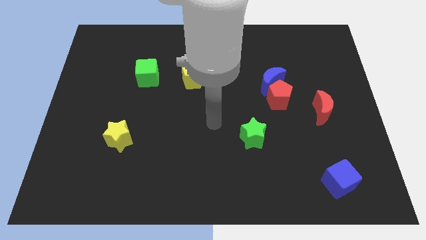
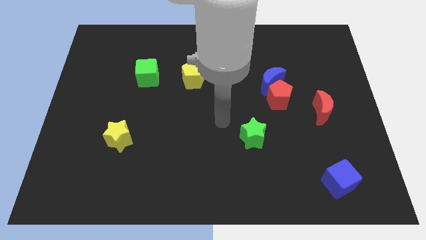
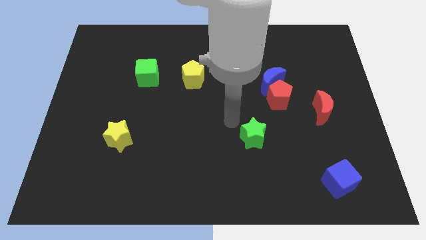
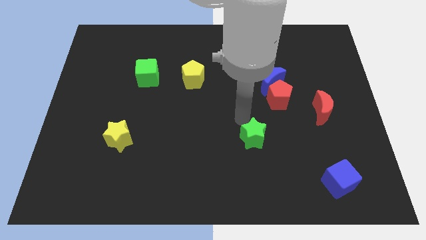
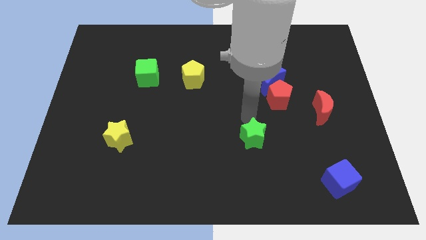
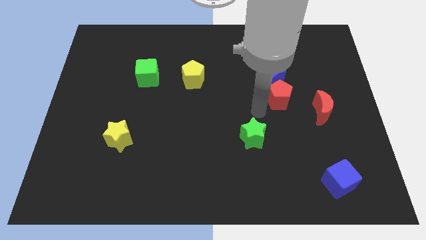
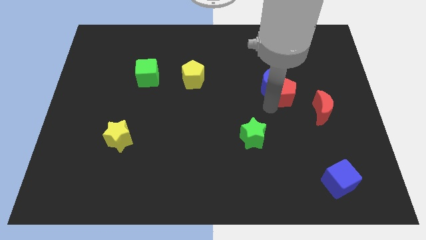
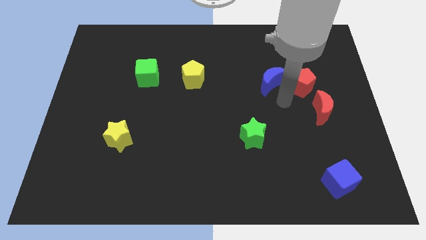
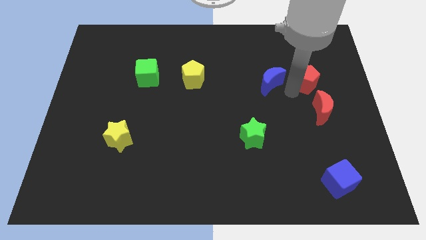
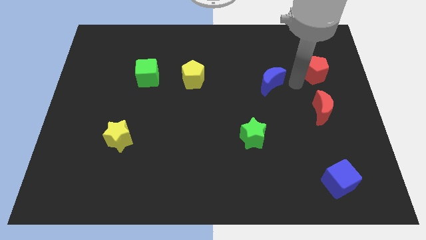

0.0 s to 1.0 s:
separate the blue moon from the red pentagon

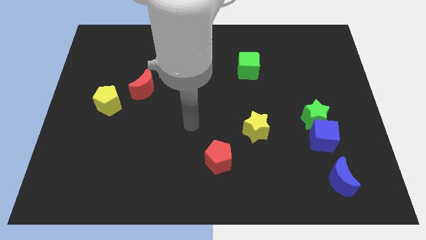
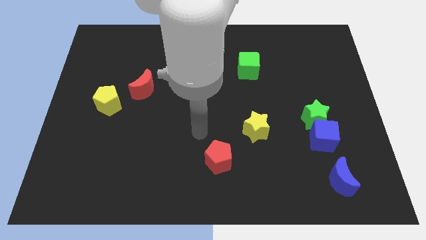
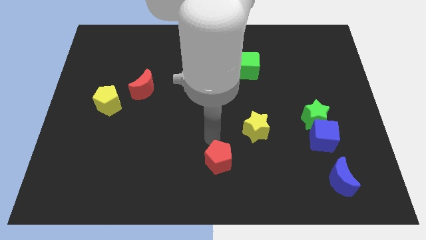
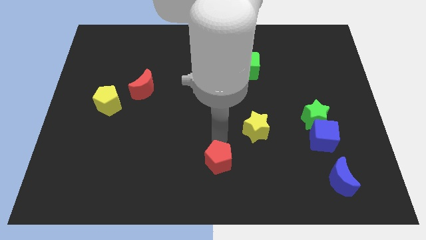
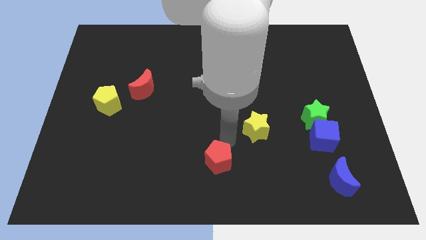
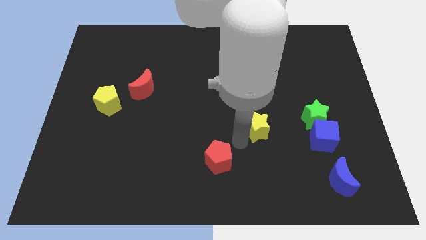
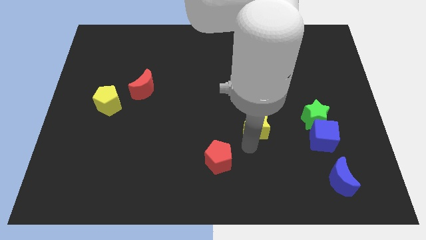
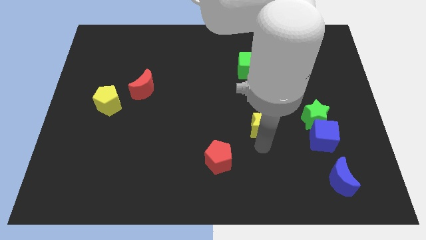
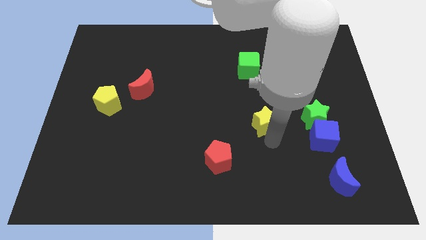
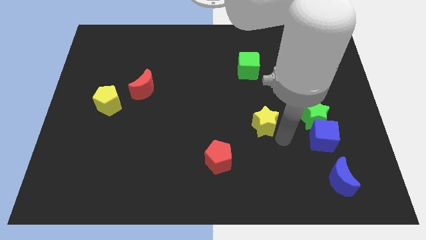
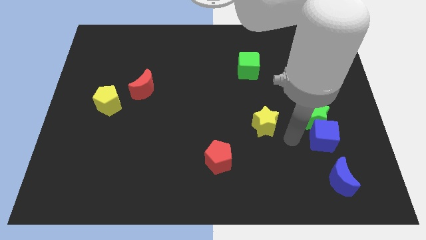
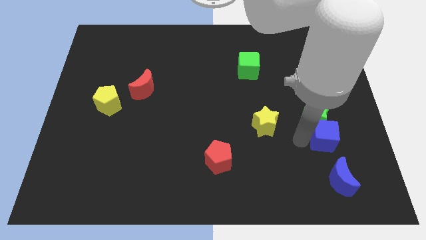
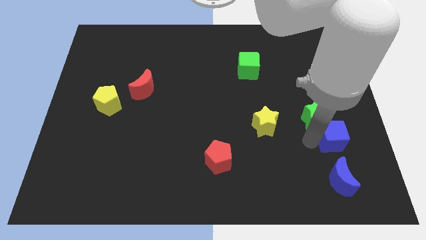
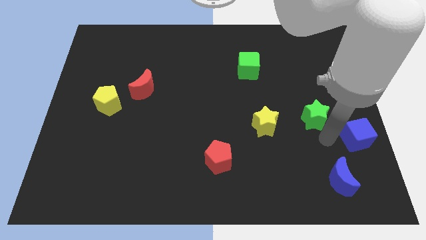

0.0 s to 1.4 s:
move the green star away from the blue cube

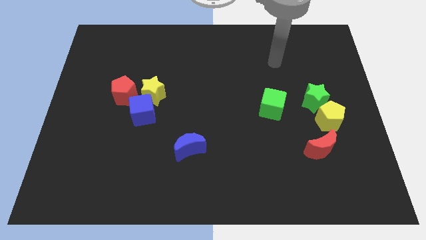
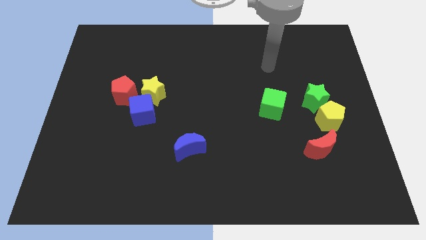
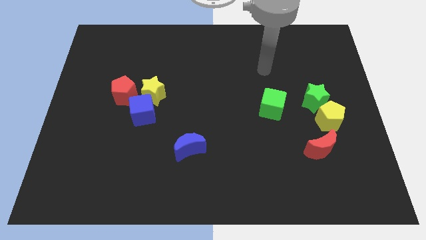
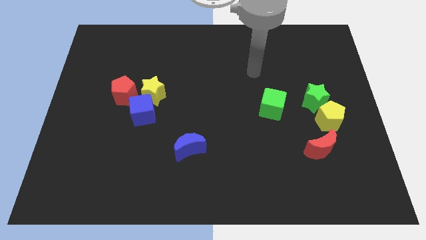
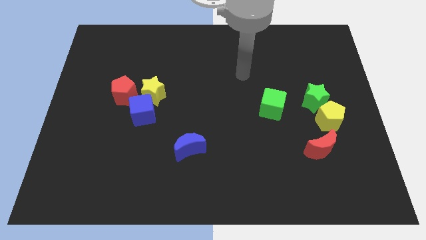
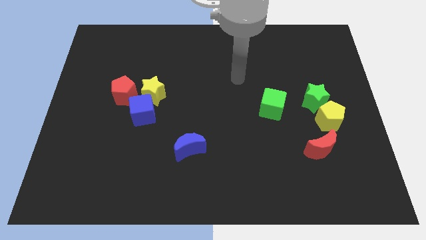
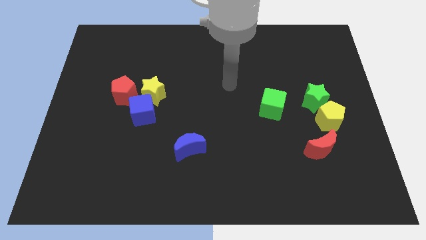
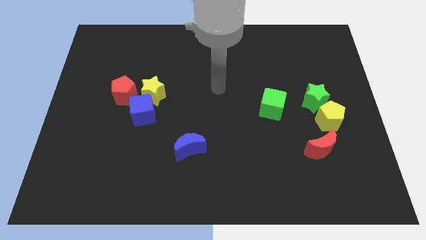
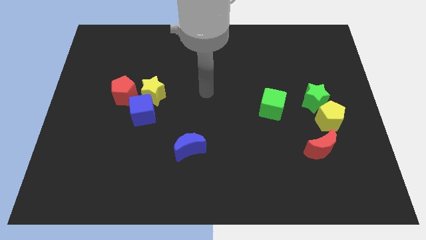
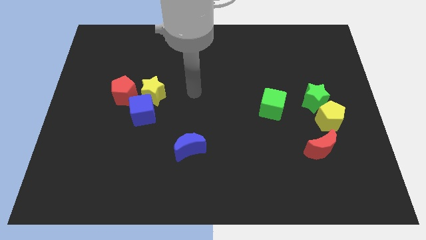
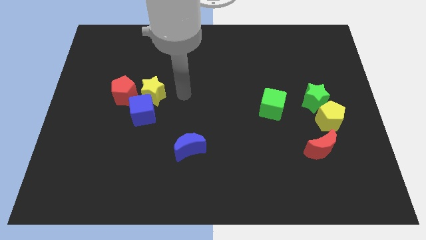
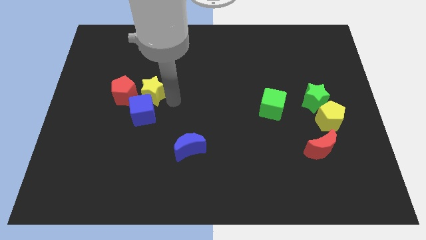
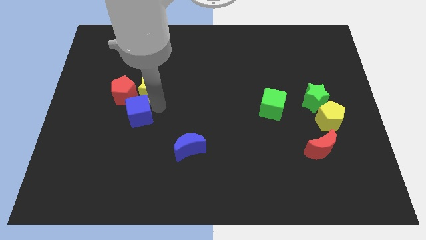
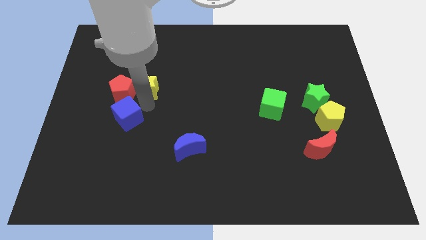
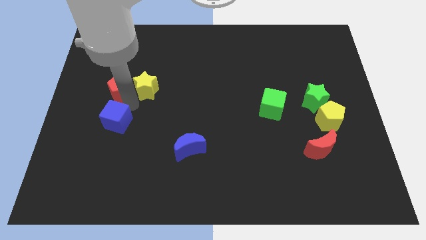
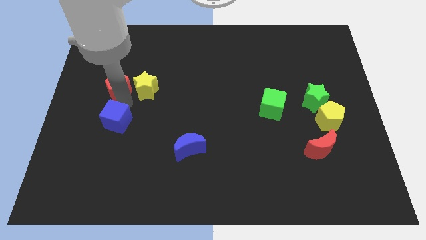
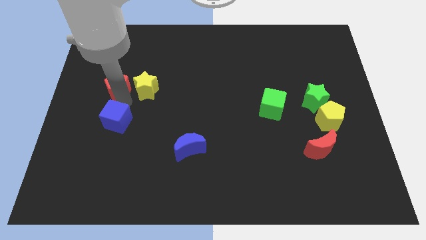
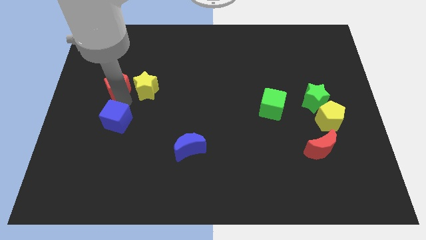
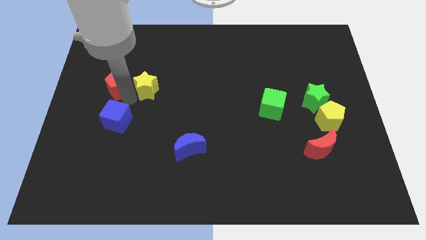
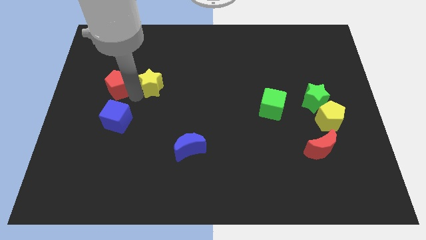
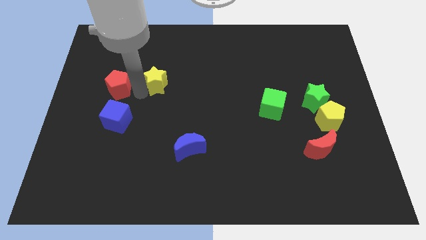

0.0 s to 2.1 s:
move the yellow star away from the blue cube and red pentagon

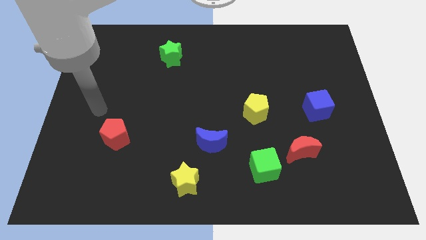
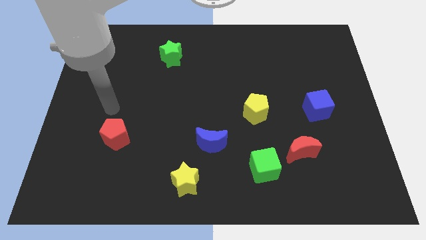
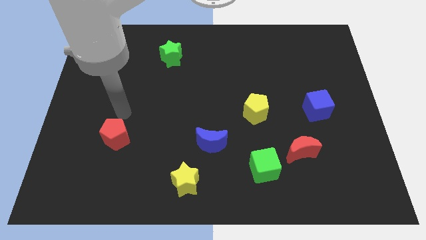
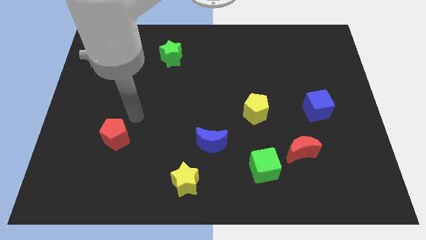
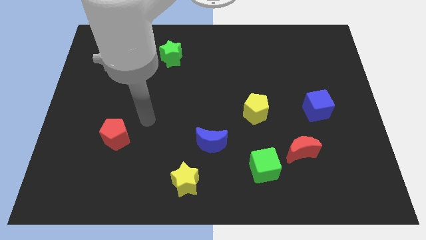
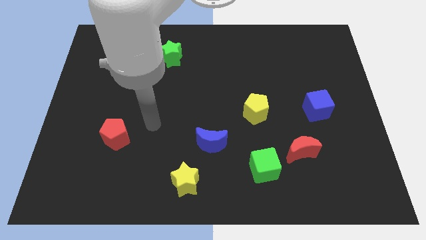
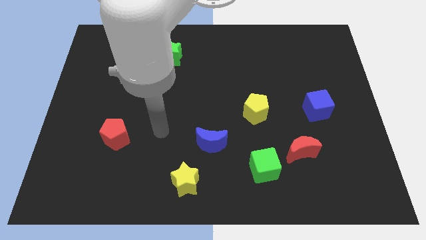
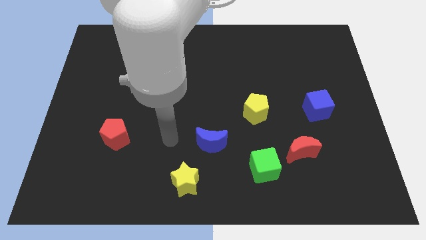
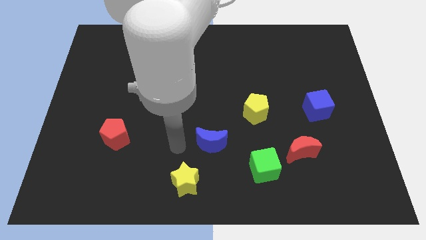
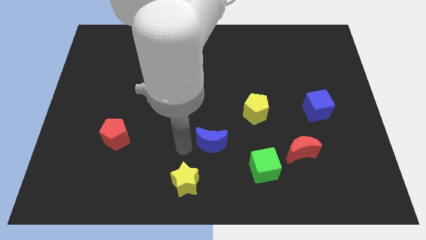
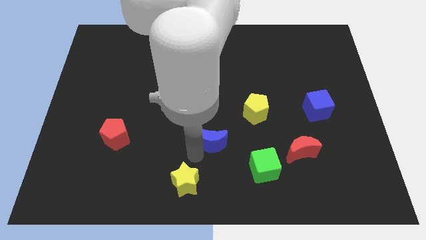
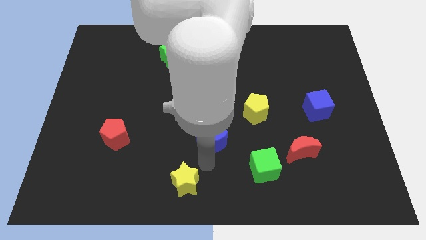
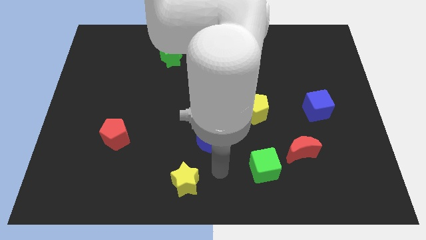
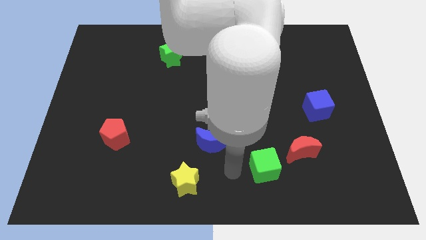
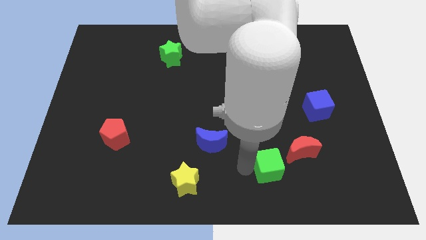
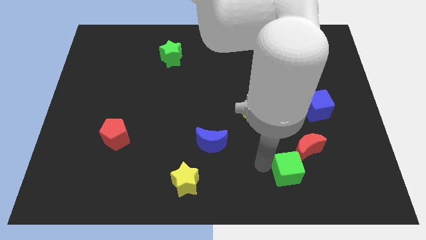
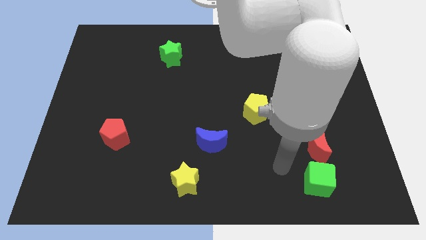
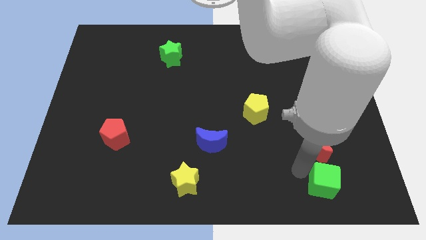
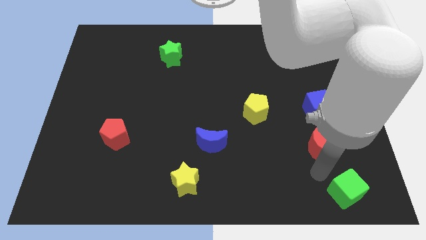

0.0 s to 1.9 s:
separate the red moon from the green cube

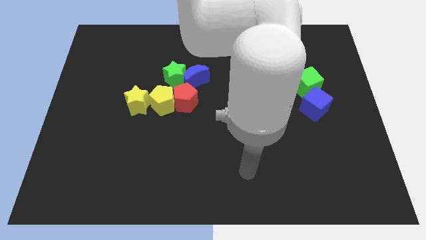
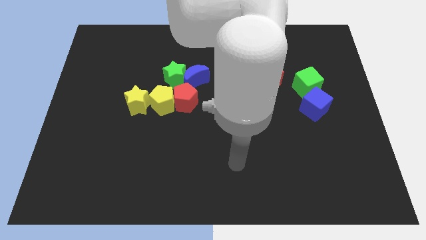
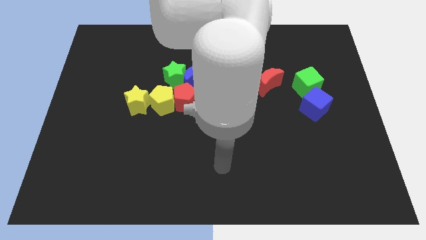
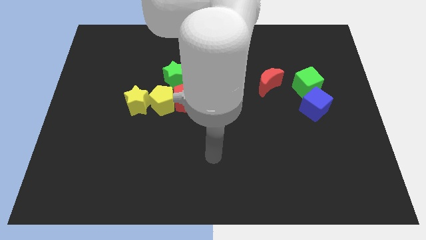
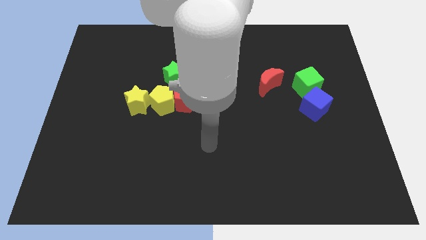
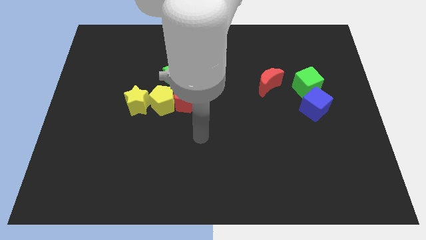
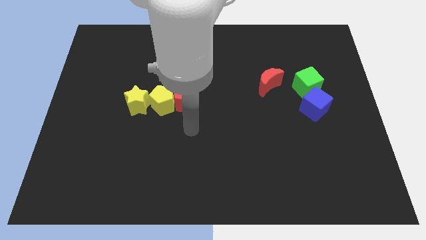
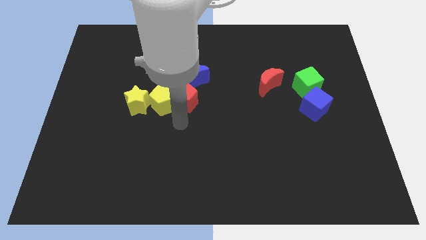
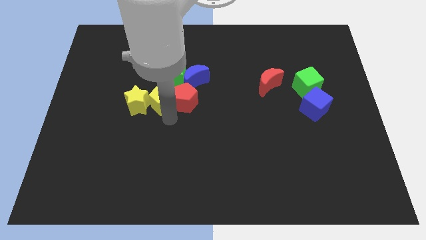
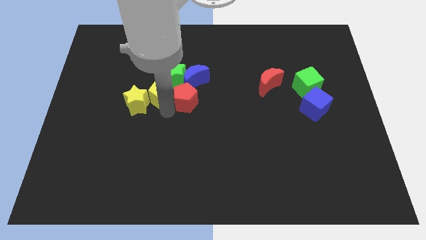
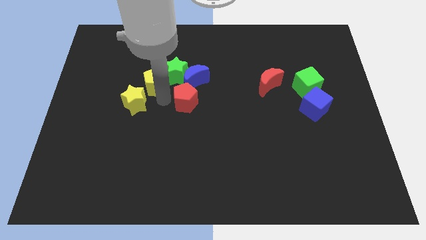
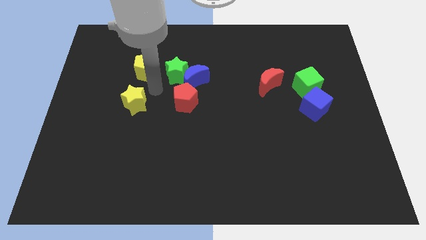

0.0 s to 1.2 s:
pull the yellow star apart from the yellow pentagon

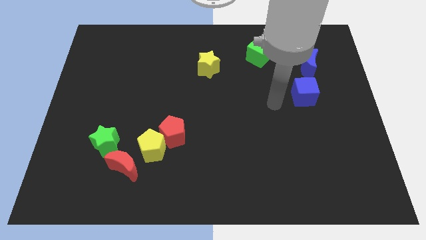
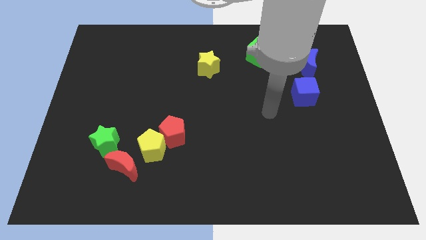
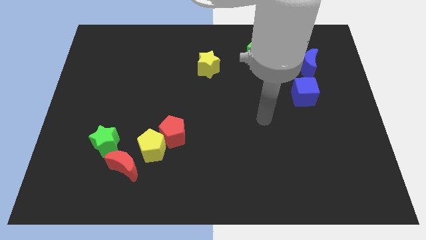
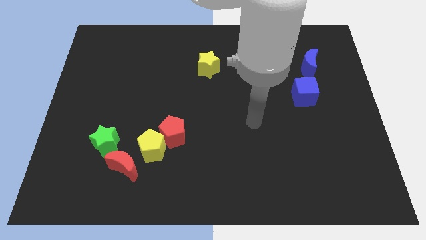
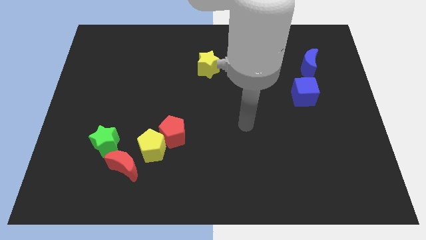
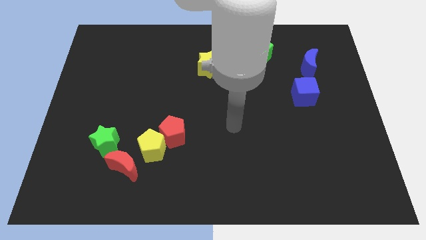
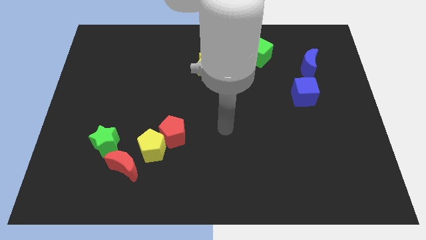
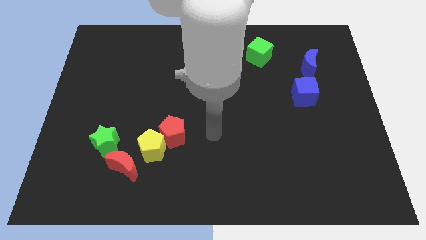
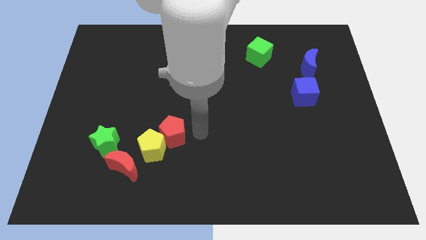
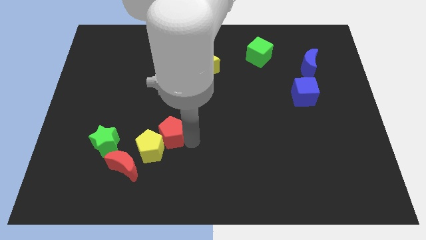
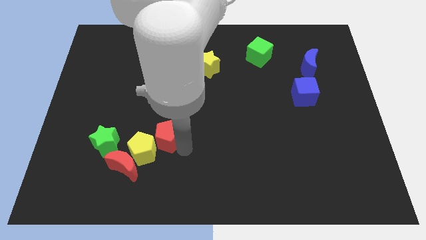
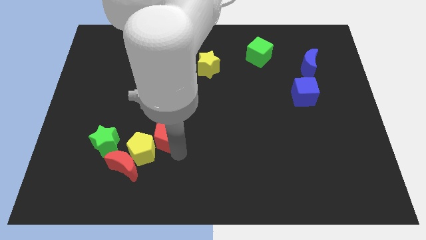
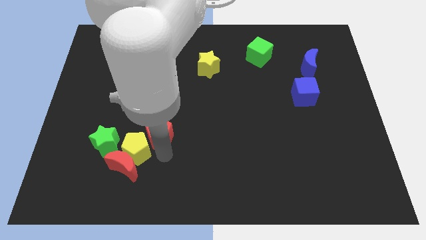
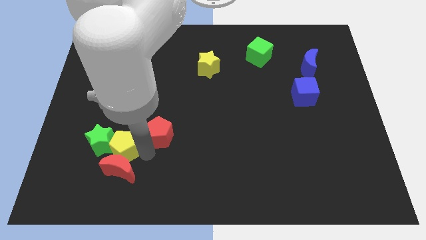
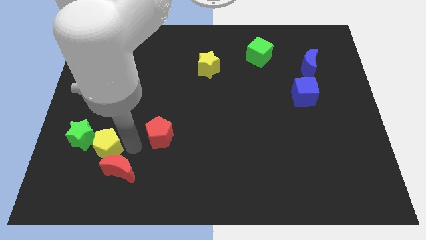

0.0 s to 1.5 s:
move the red pentagon away from the yellow pentagon

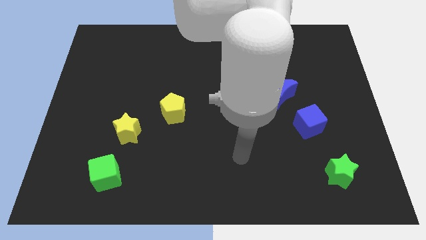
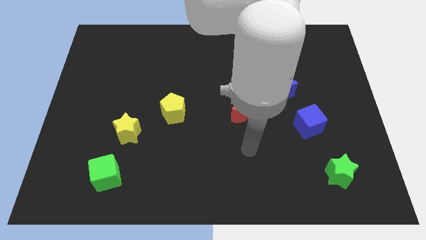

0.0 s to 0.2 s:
separate the blue moon from the blue cube
